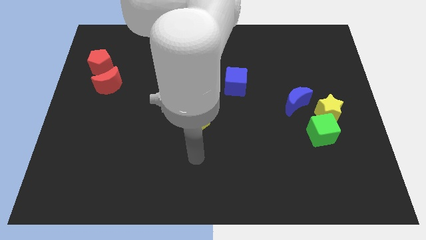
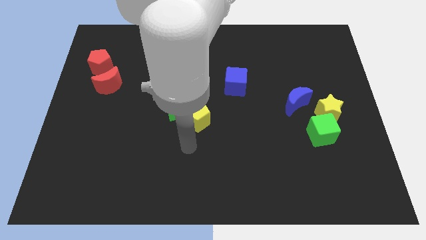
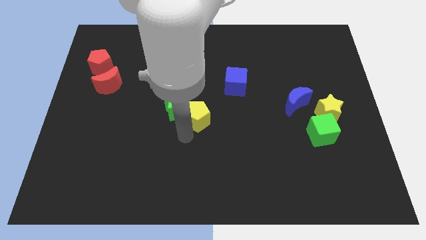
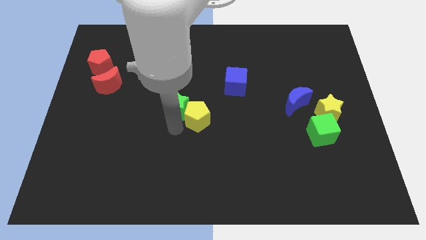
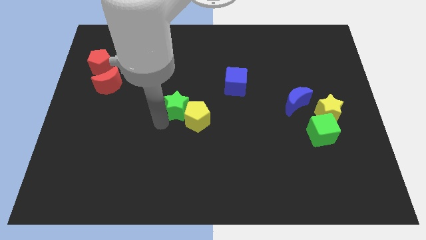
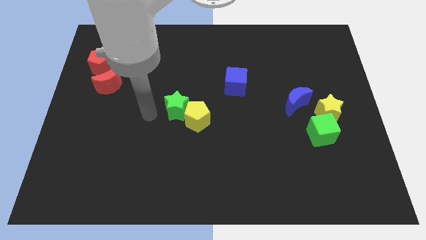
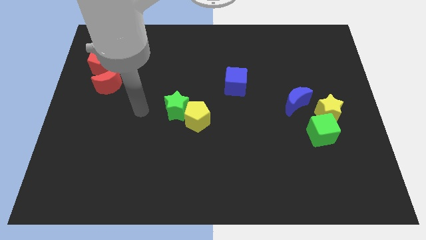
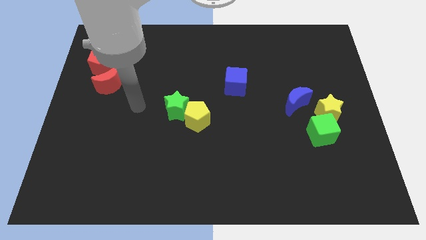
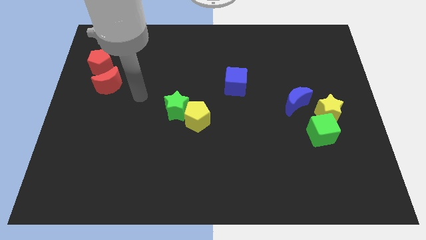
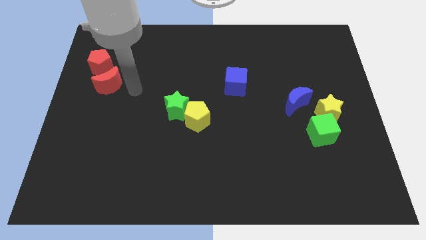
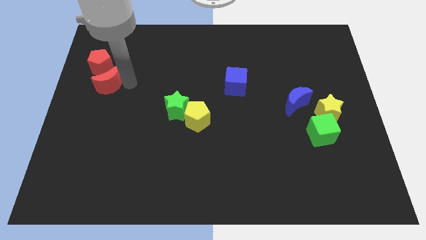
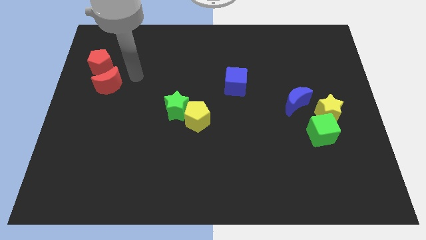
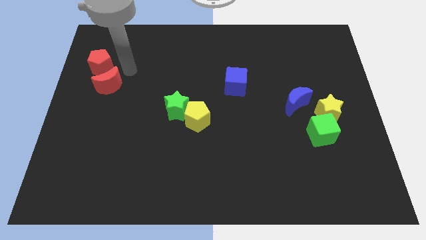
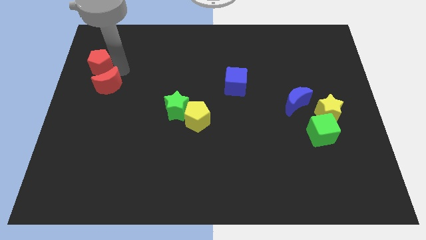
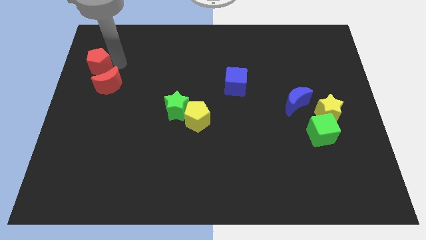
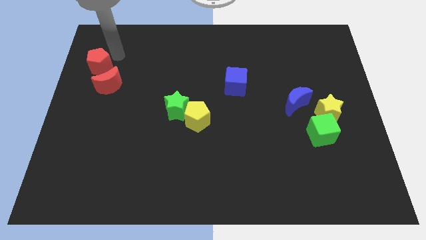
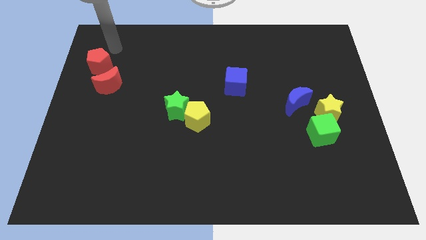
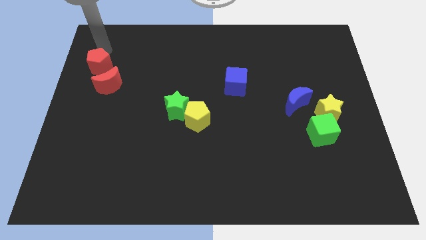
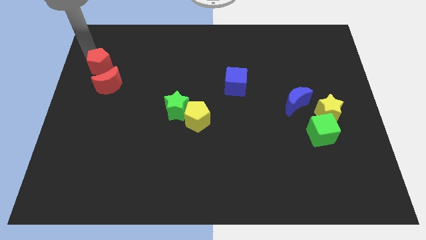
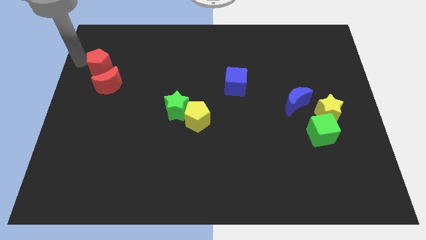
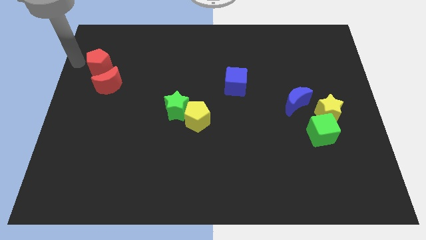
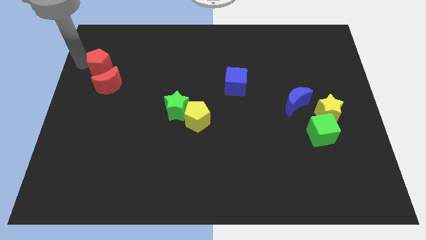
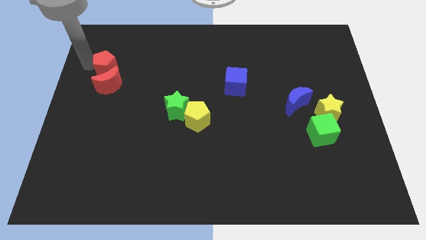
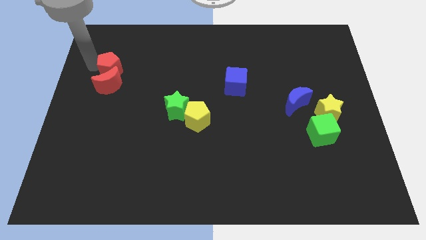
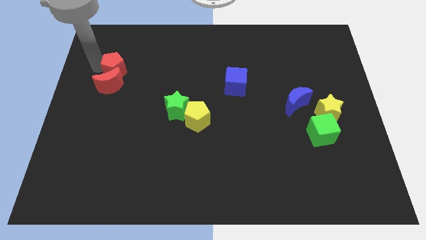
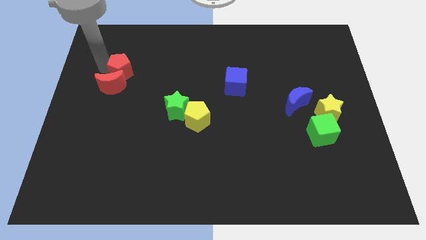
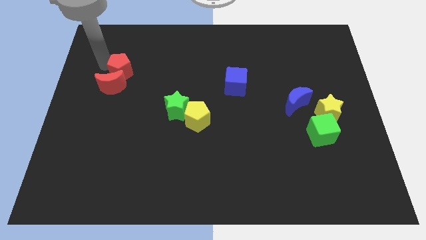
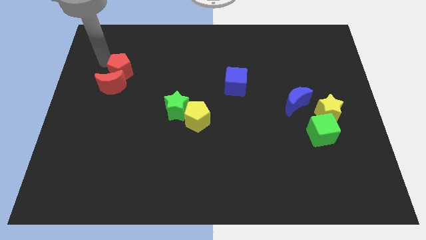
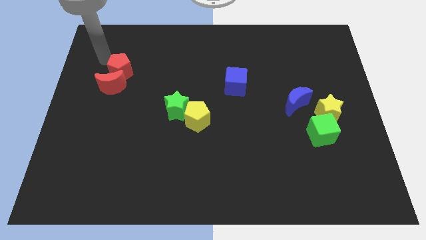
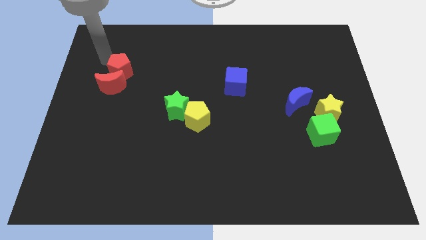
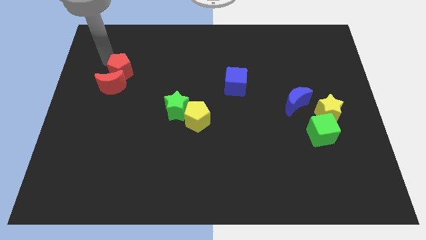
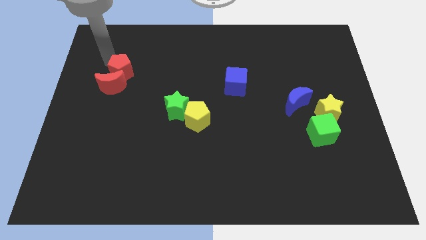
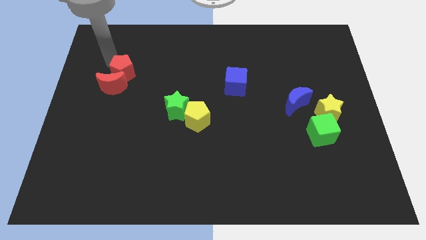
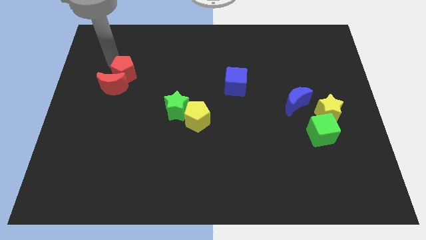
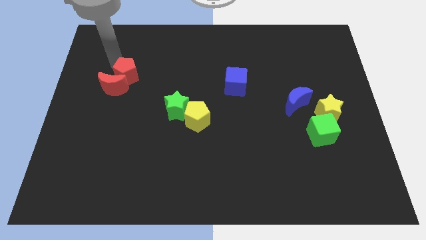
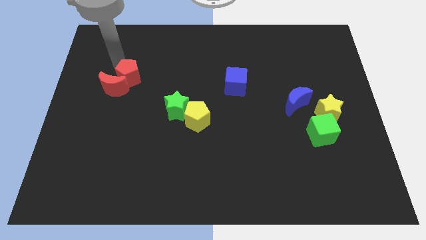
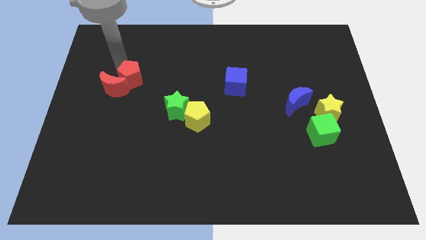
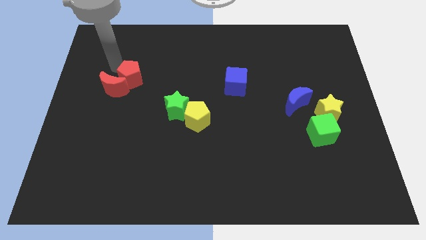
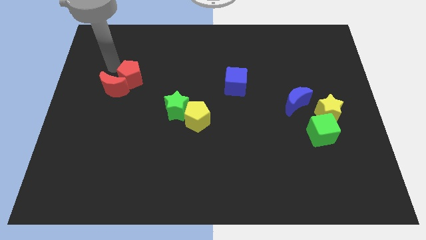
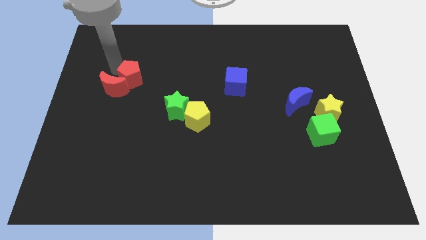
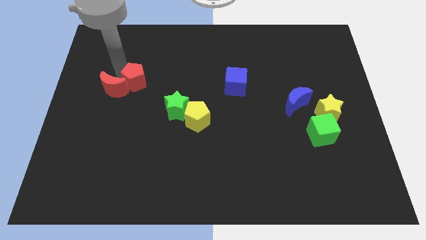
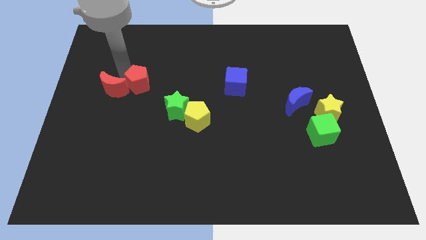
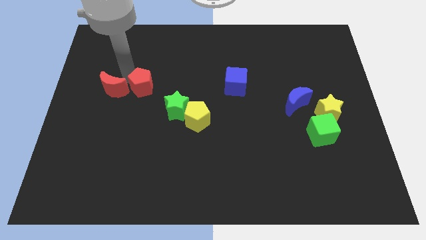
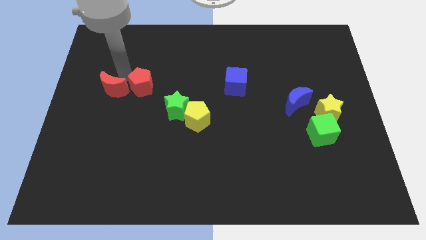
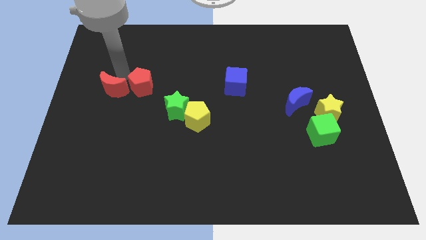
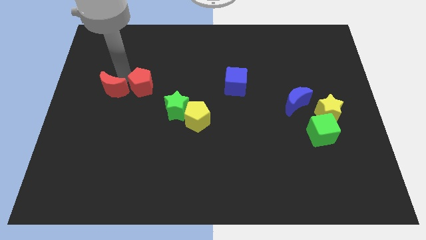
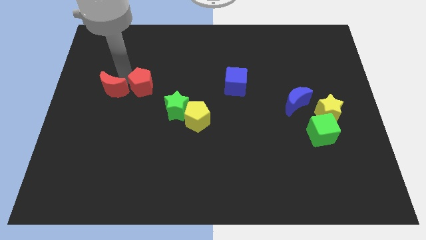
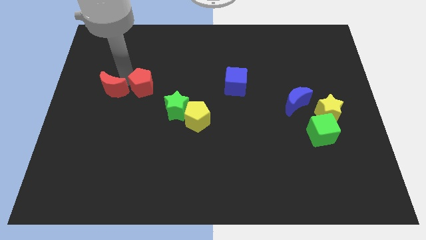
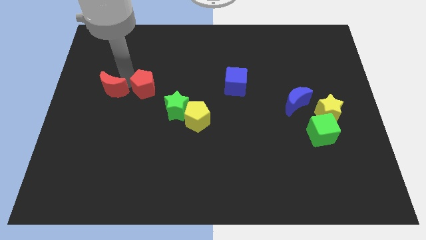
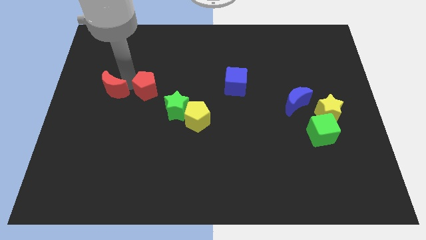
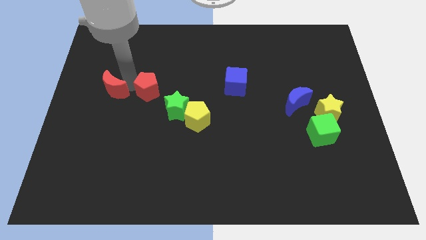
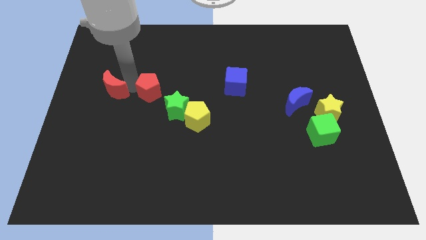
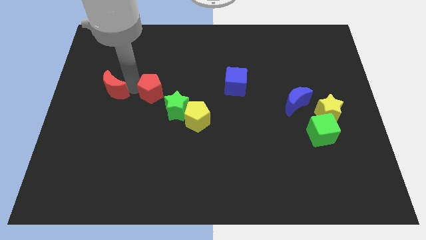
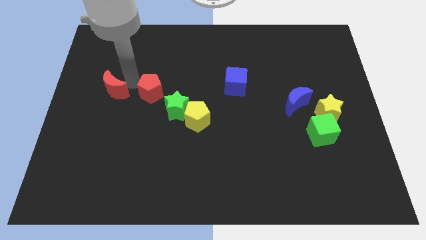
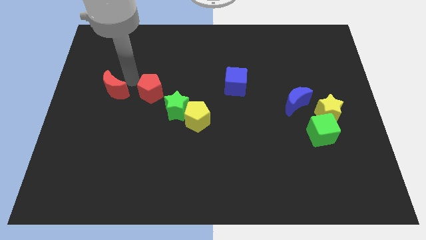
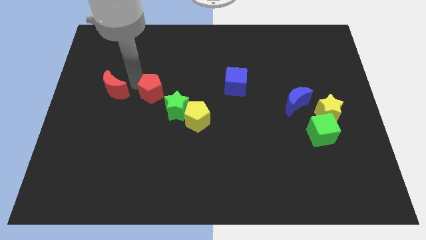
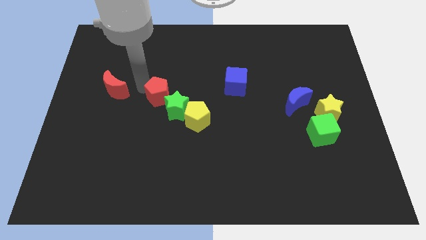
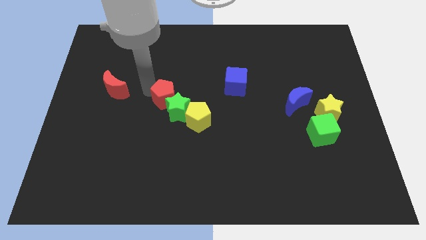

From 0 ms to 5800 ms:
put the red pentagon close to the green star

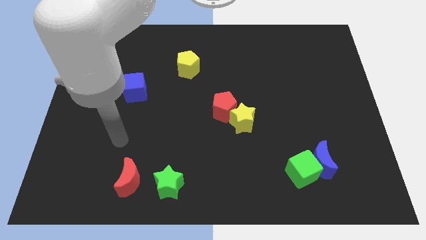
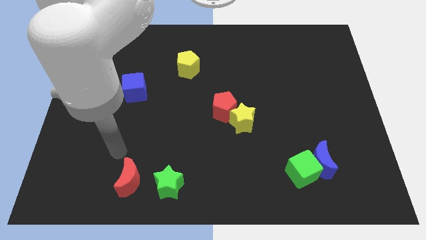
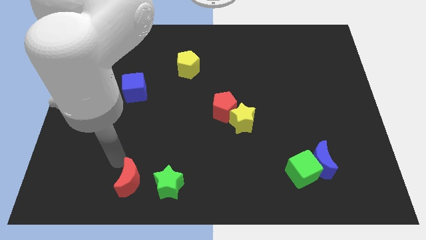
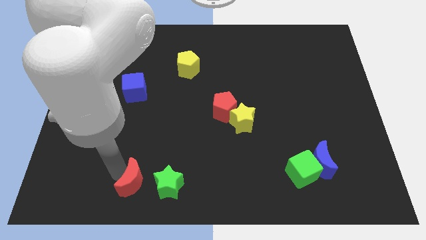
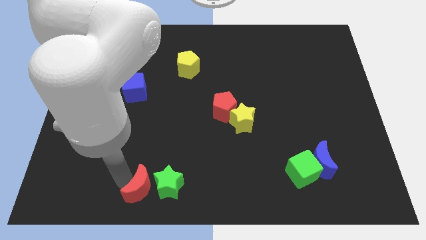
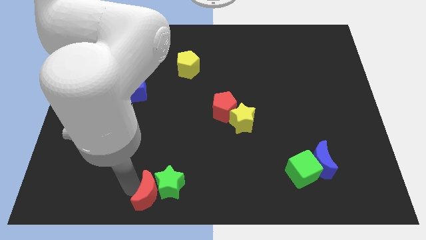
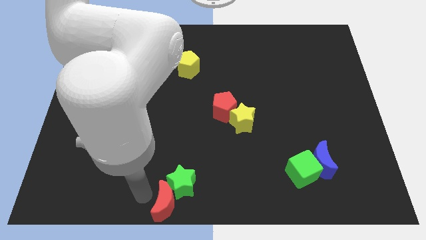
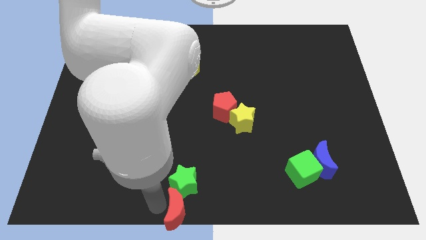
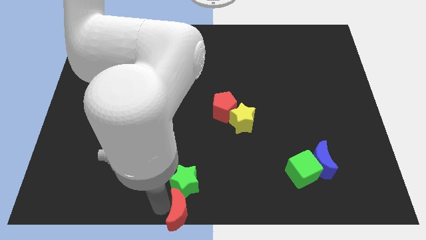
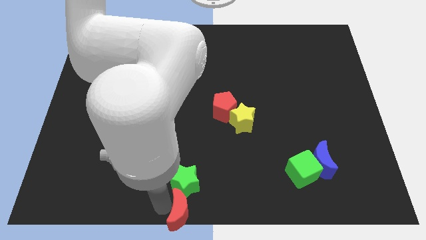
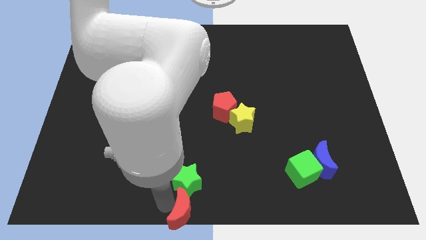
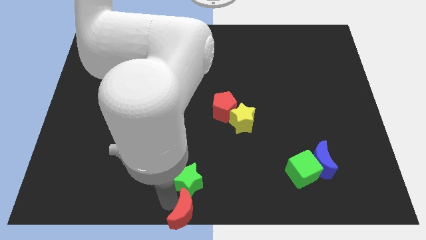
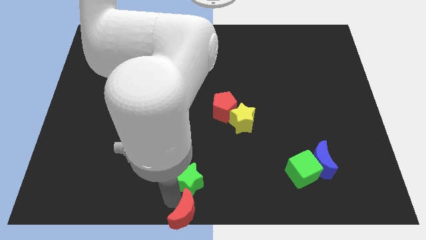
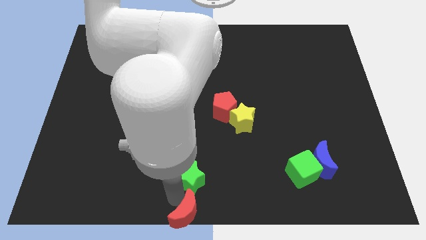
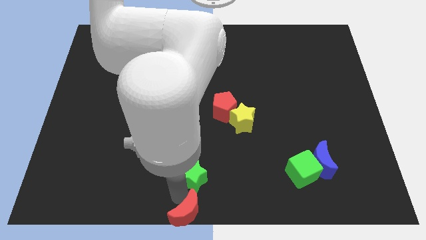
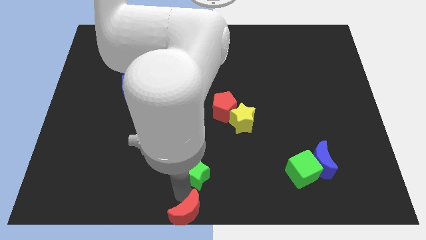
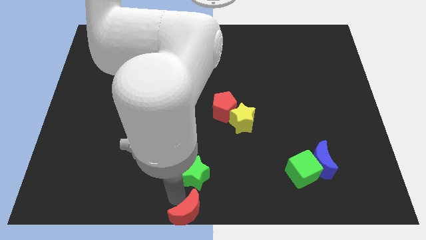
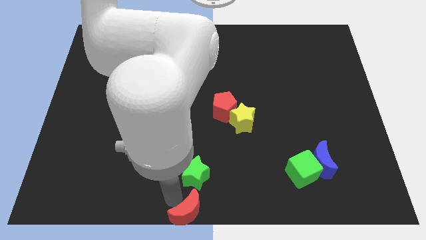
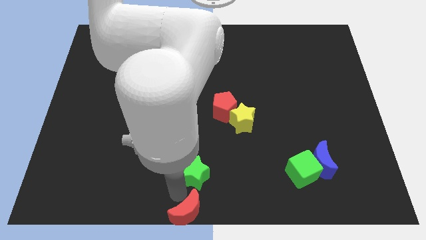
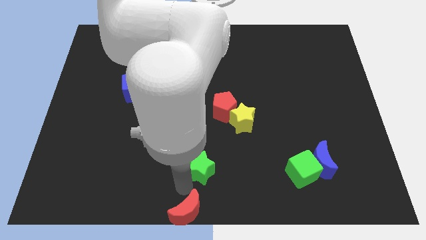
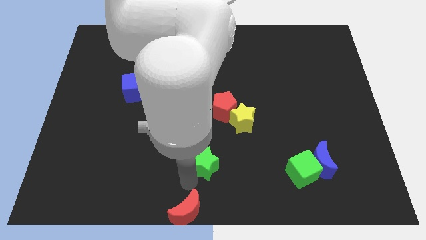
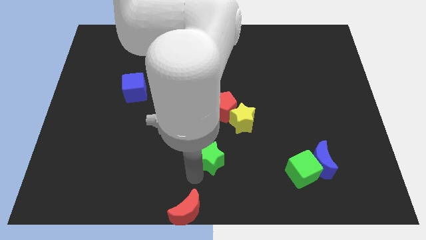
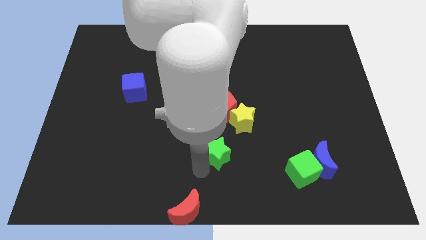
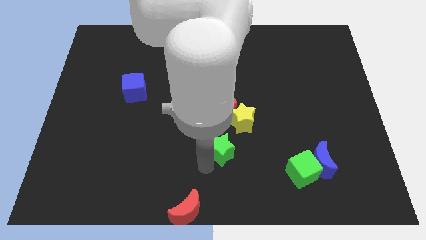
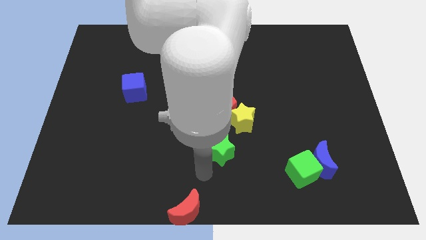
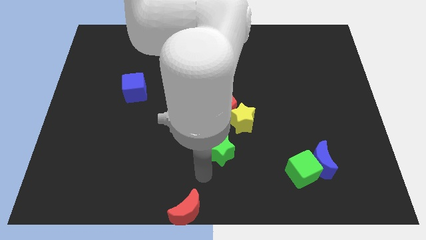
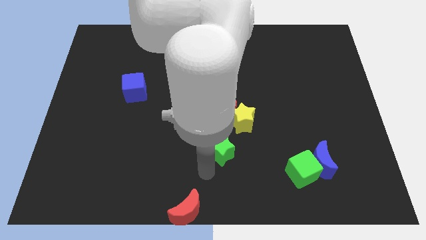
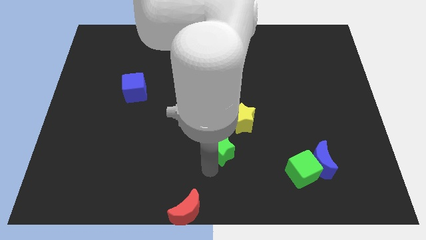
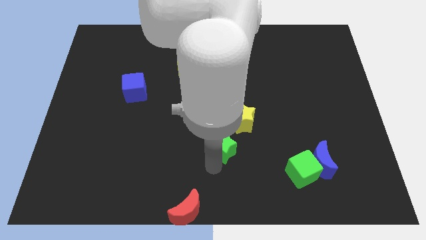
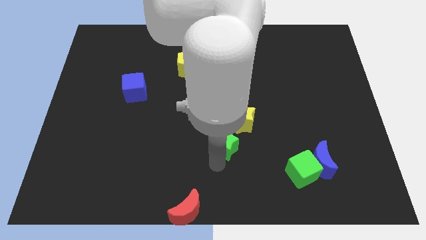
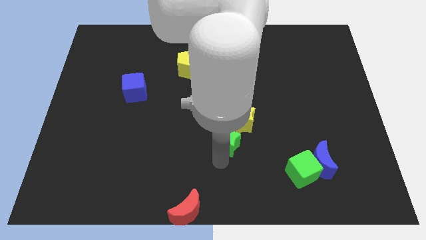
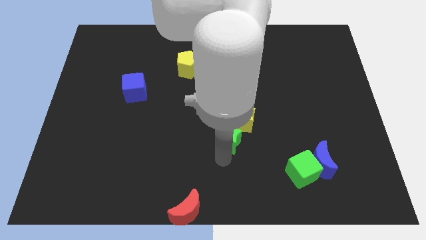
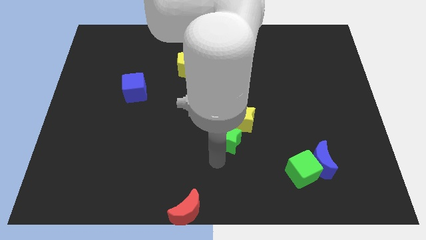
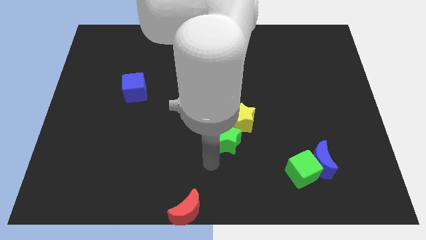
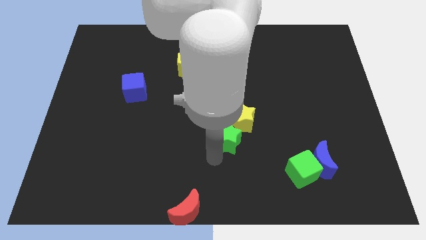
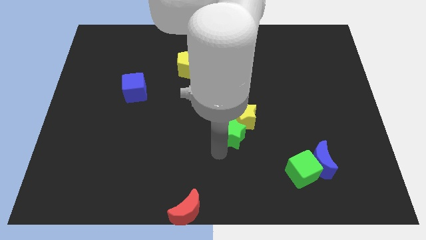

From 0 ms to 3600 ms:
push the green star close to the yellow star
